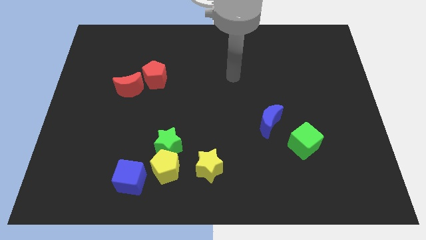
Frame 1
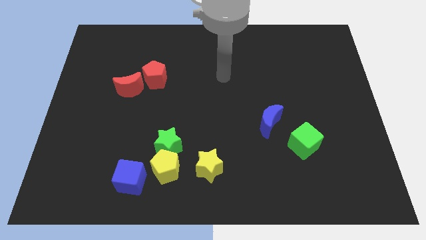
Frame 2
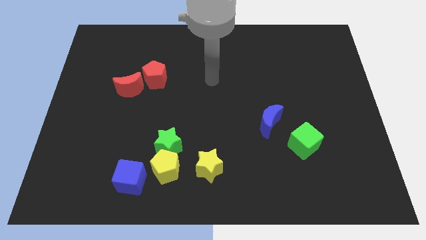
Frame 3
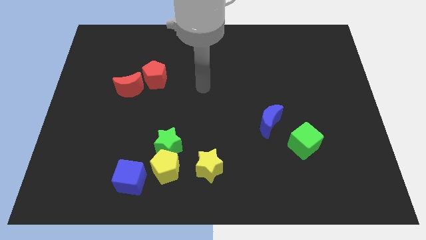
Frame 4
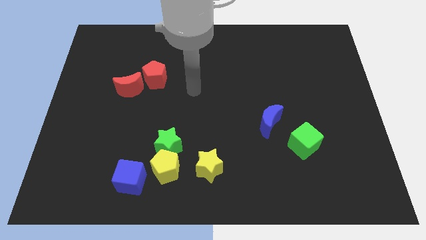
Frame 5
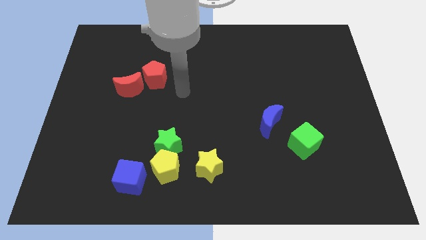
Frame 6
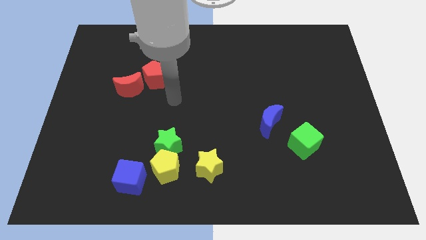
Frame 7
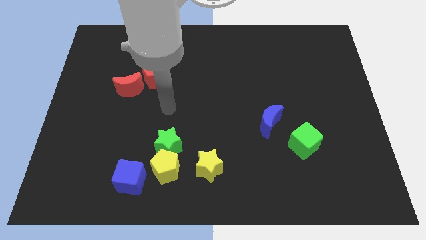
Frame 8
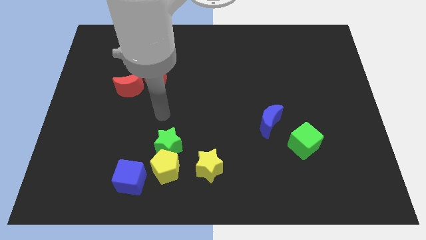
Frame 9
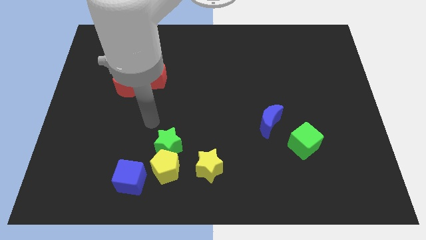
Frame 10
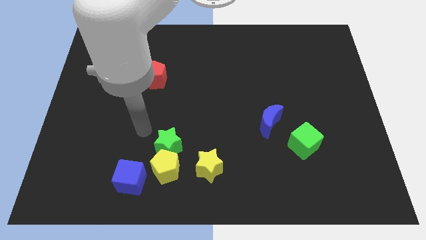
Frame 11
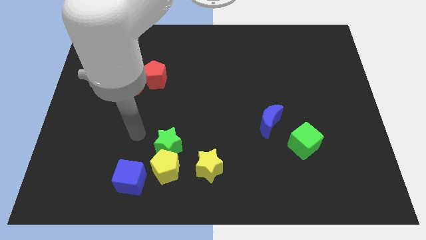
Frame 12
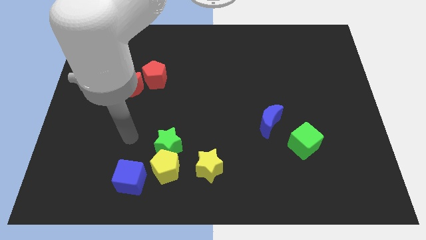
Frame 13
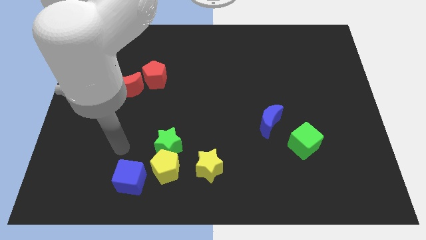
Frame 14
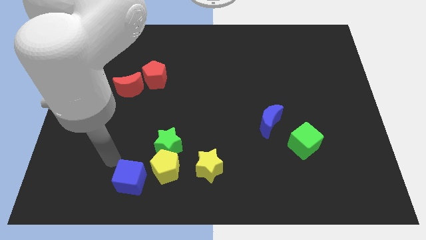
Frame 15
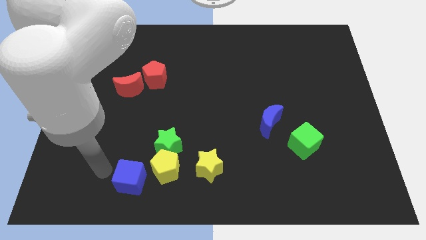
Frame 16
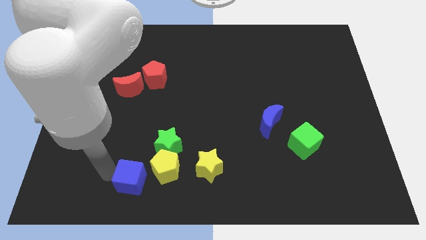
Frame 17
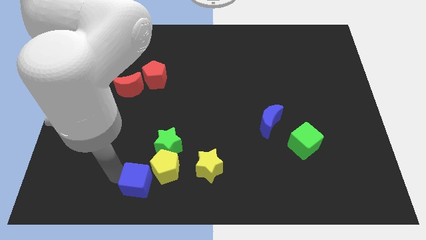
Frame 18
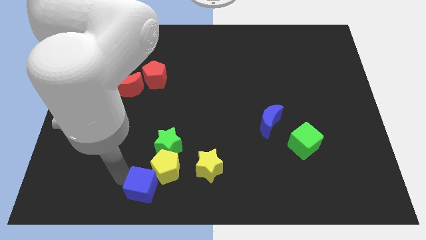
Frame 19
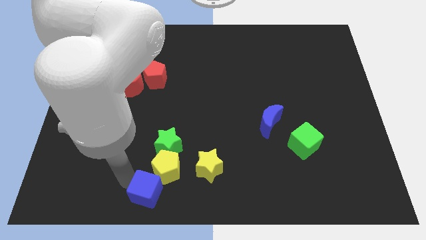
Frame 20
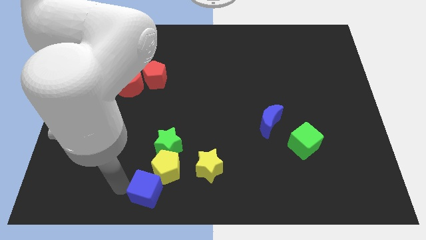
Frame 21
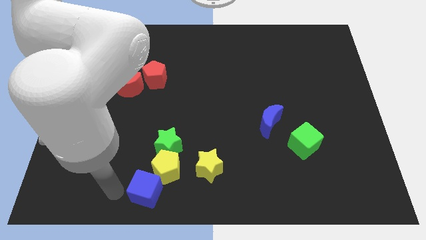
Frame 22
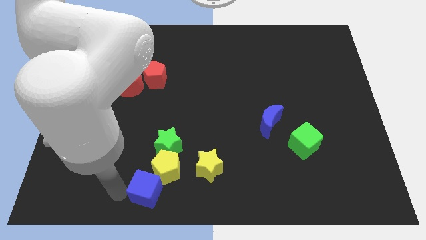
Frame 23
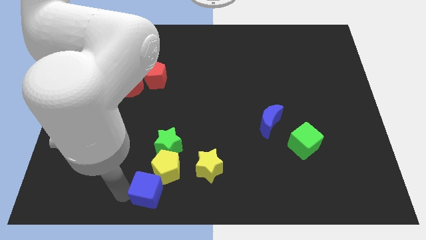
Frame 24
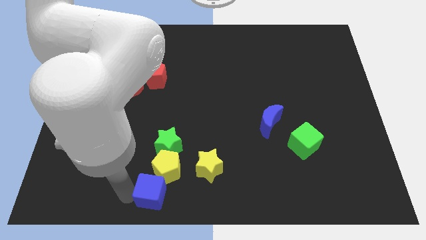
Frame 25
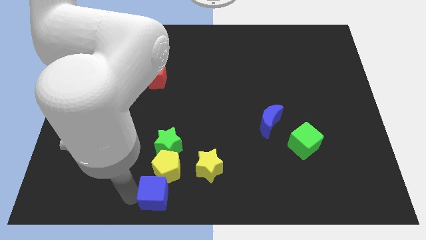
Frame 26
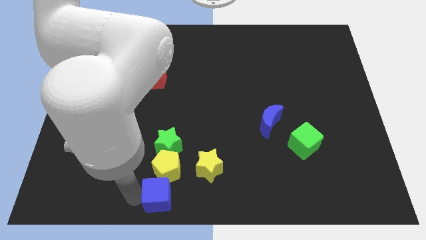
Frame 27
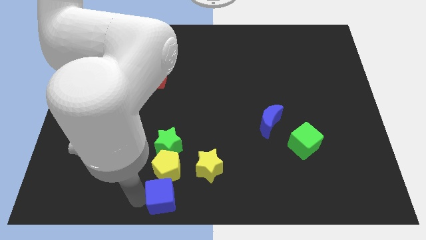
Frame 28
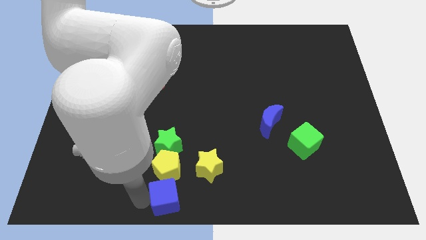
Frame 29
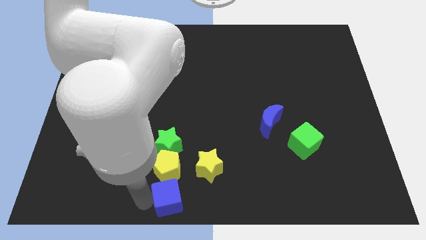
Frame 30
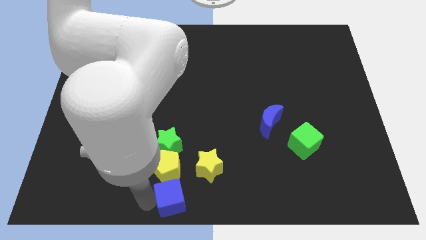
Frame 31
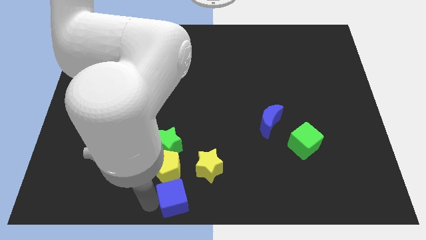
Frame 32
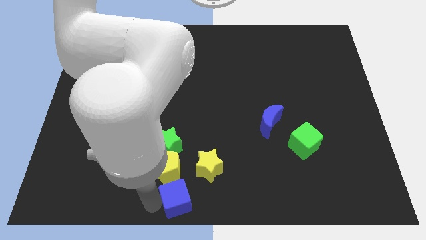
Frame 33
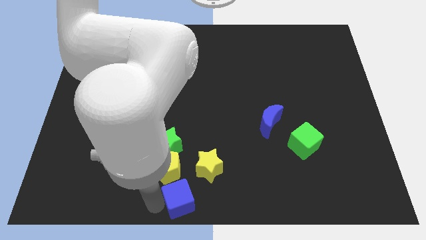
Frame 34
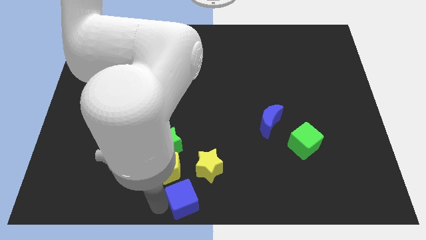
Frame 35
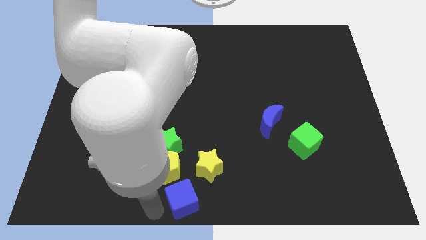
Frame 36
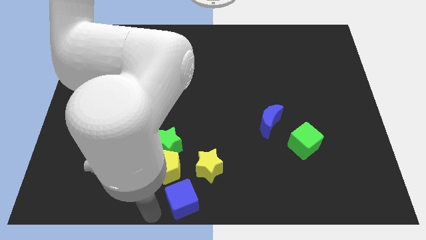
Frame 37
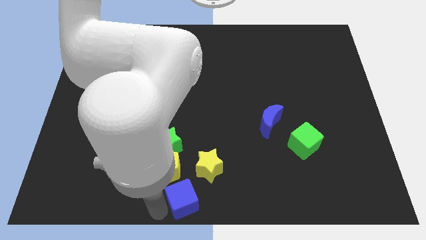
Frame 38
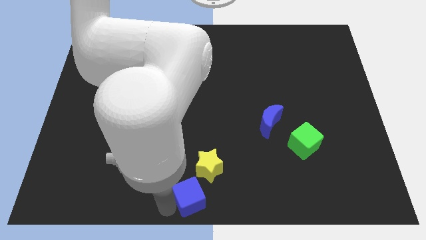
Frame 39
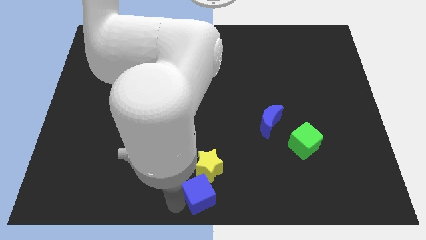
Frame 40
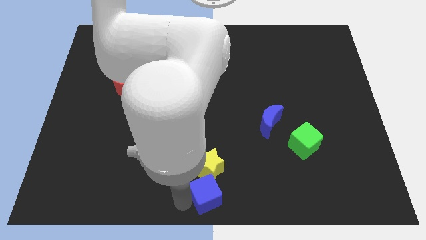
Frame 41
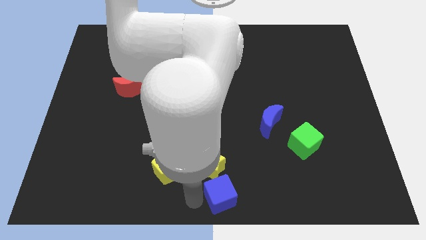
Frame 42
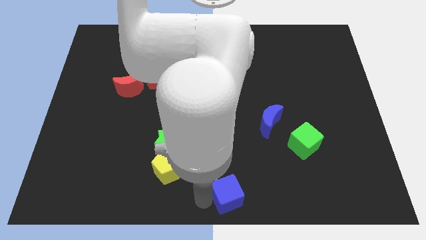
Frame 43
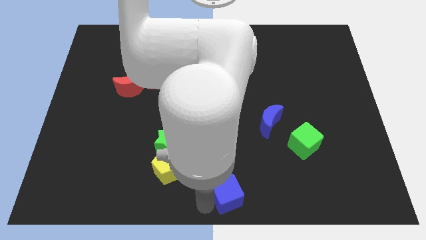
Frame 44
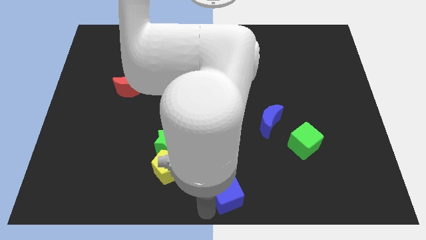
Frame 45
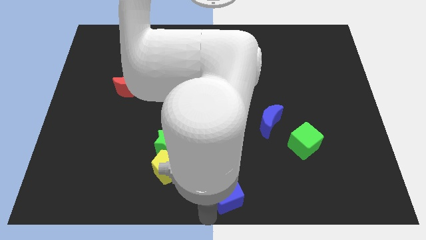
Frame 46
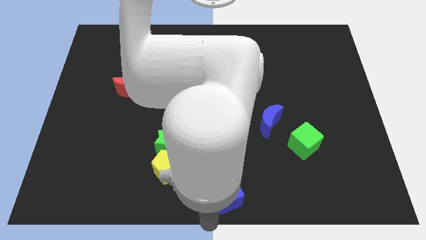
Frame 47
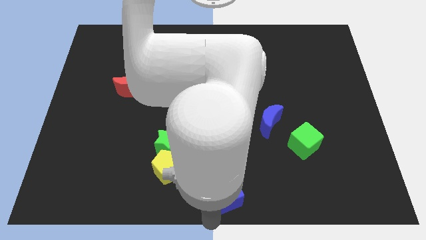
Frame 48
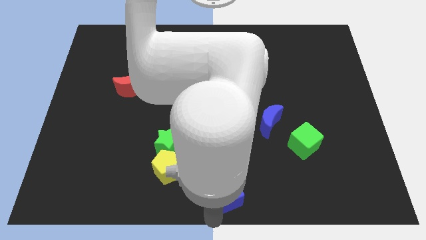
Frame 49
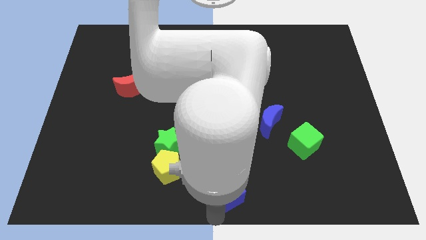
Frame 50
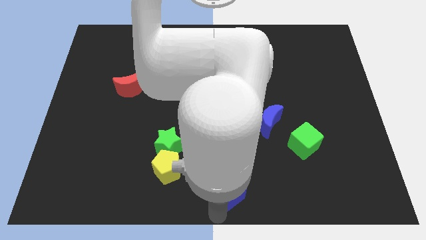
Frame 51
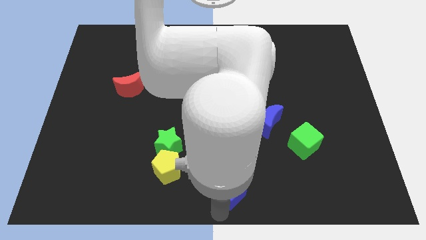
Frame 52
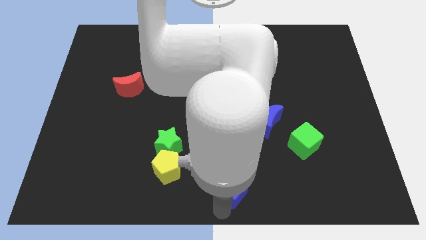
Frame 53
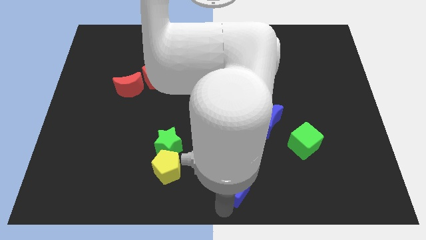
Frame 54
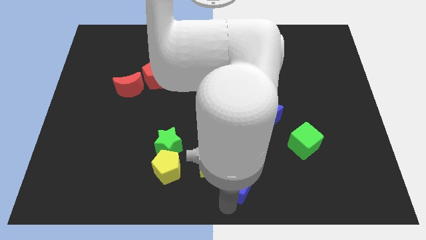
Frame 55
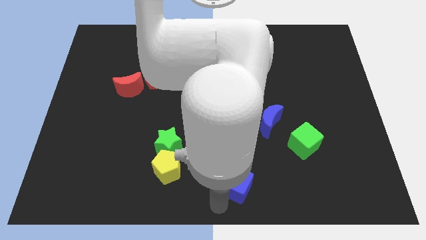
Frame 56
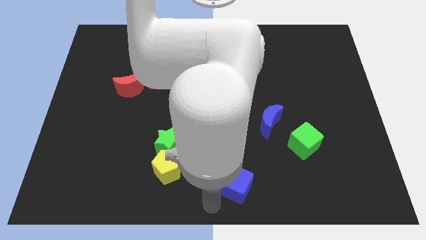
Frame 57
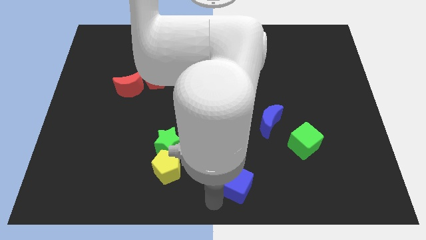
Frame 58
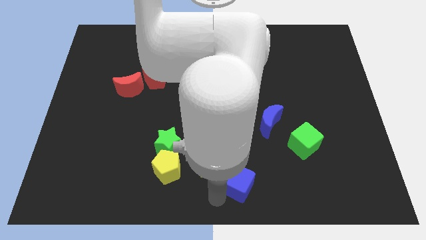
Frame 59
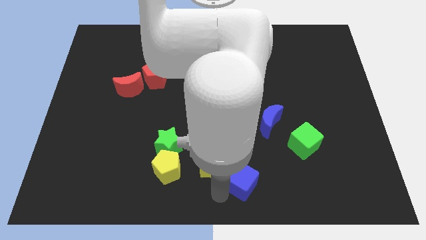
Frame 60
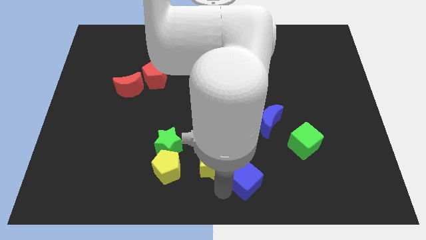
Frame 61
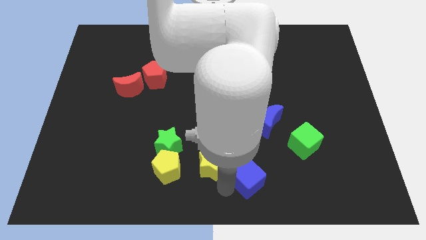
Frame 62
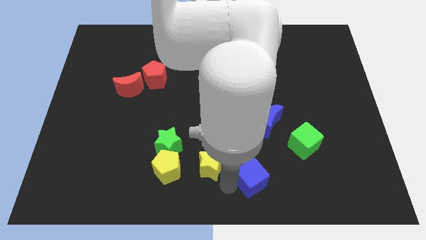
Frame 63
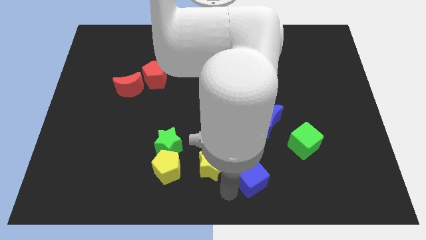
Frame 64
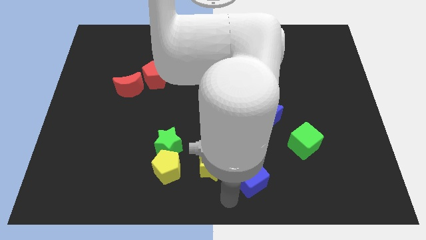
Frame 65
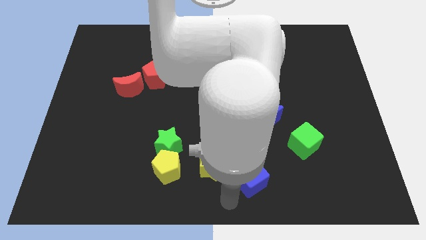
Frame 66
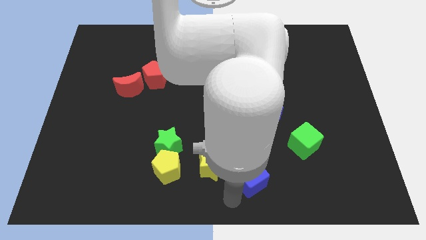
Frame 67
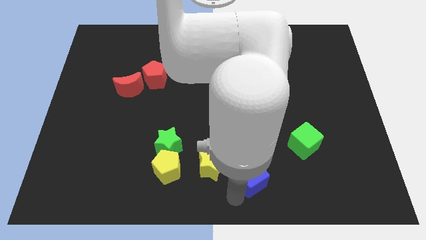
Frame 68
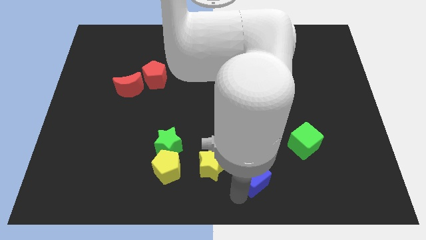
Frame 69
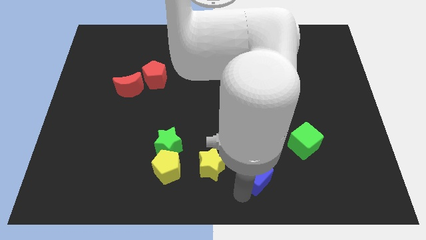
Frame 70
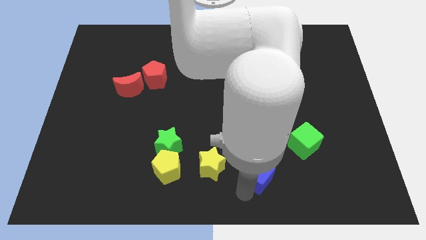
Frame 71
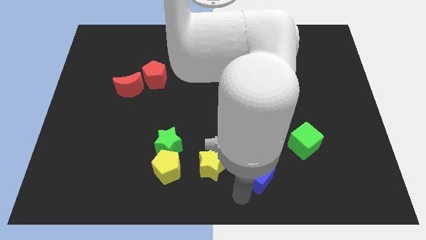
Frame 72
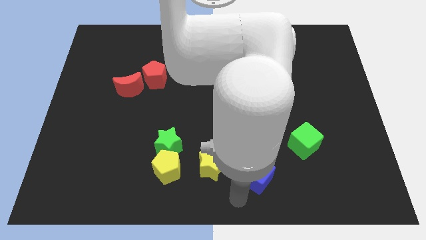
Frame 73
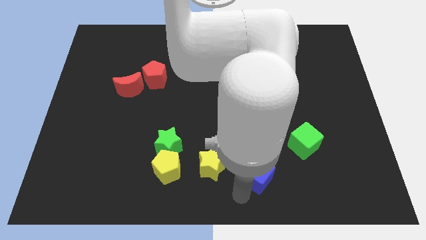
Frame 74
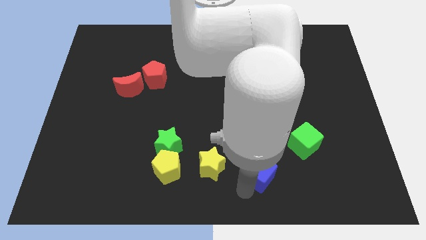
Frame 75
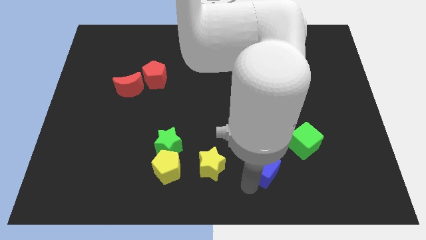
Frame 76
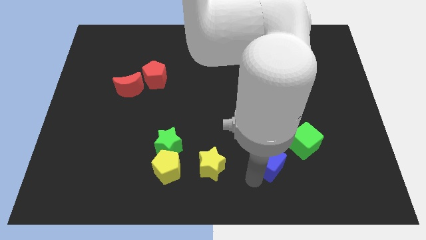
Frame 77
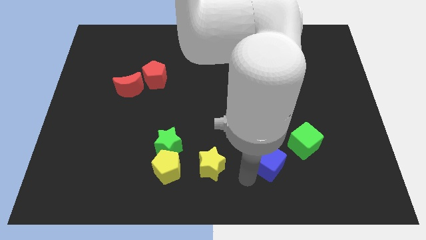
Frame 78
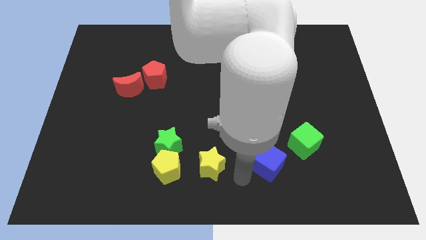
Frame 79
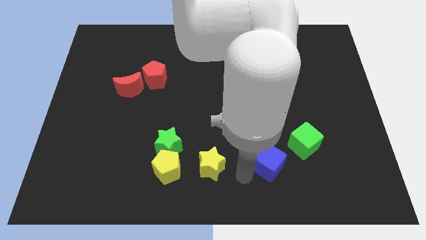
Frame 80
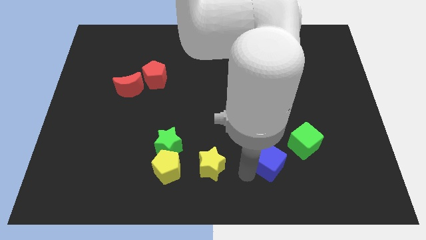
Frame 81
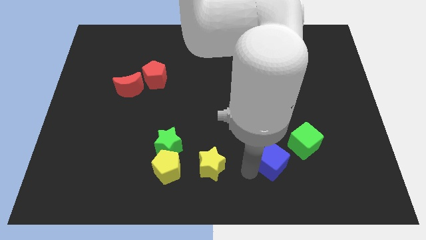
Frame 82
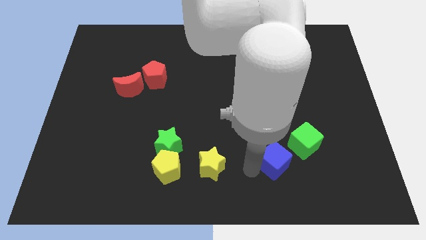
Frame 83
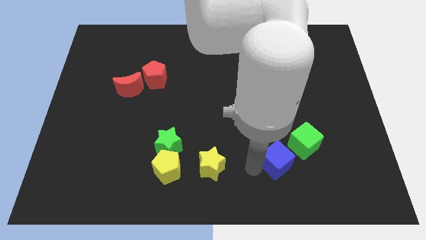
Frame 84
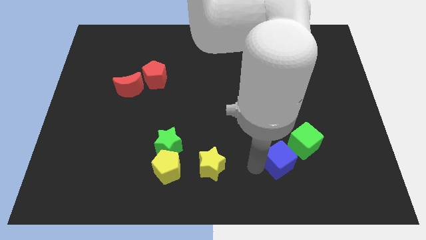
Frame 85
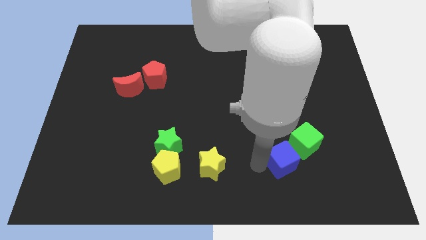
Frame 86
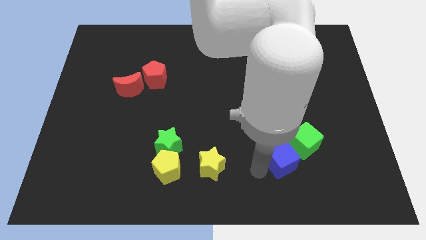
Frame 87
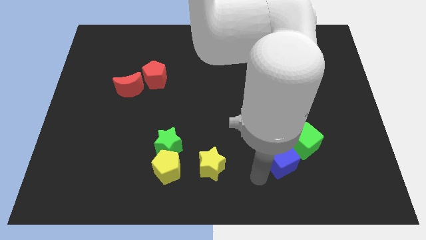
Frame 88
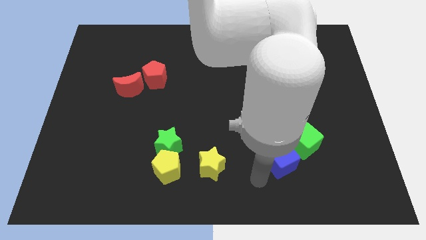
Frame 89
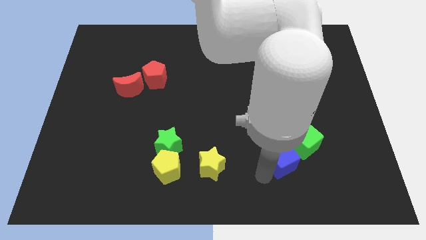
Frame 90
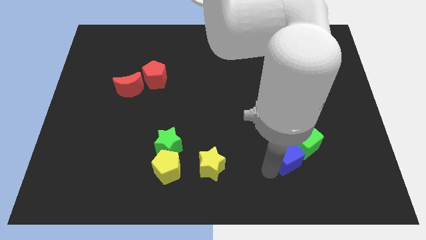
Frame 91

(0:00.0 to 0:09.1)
slide the blue cube next to the green cube
